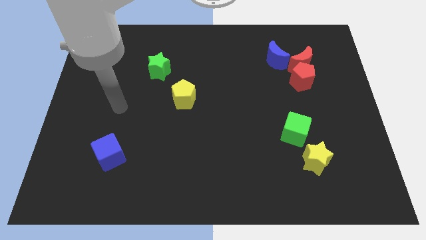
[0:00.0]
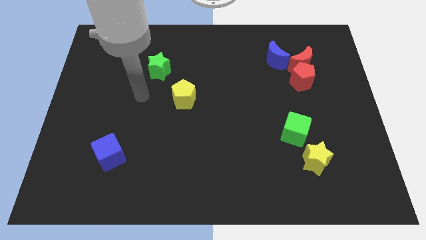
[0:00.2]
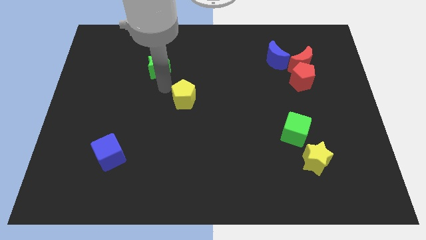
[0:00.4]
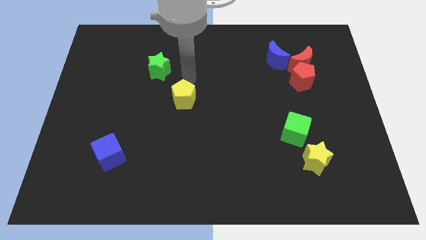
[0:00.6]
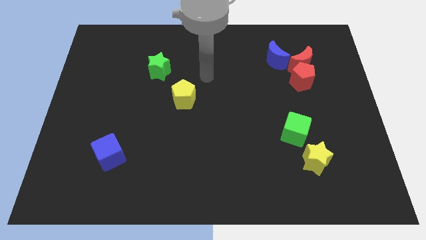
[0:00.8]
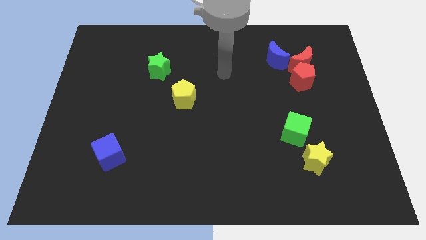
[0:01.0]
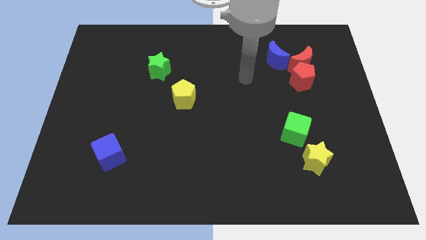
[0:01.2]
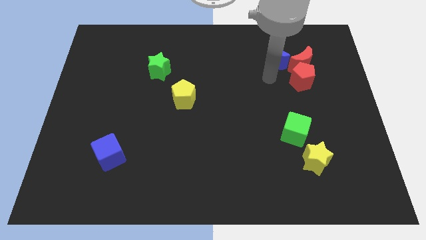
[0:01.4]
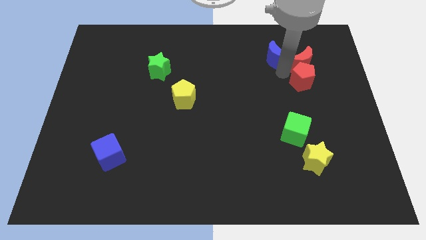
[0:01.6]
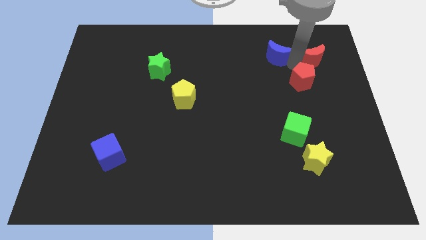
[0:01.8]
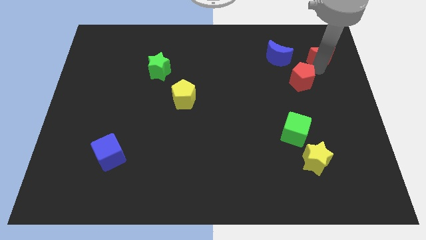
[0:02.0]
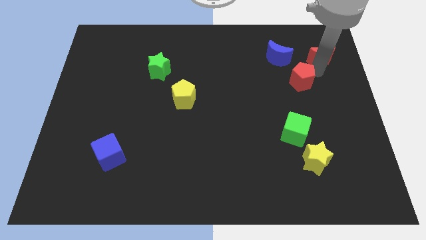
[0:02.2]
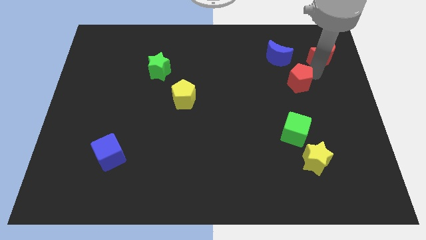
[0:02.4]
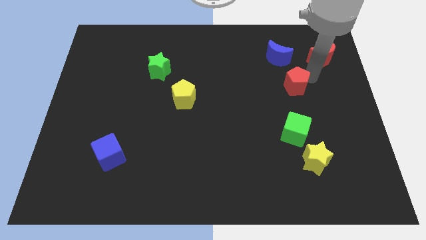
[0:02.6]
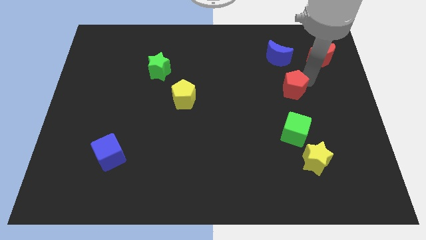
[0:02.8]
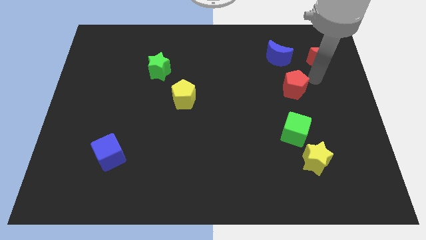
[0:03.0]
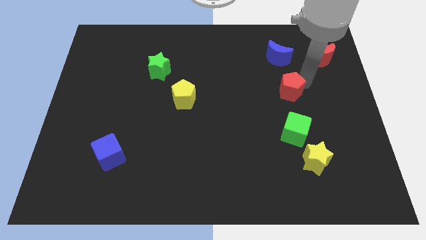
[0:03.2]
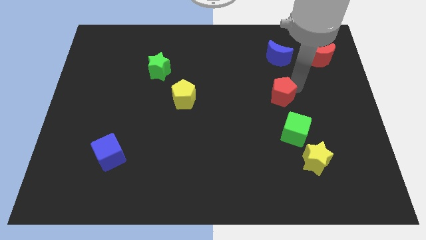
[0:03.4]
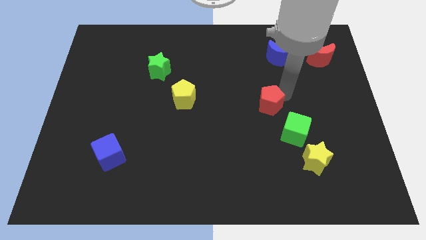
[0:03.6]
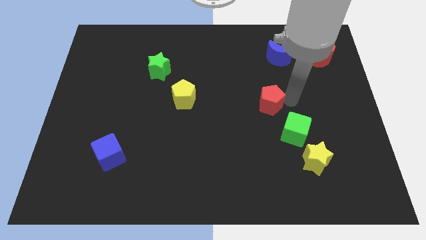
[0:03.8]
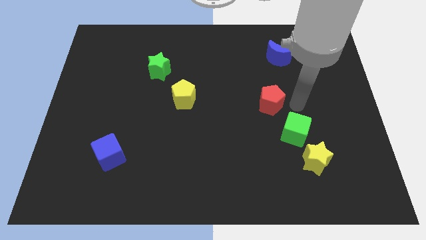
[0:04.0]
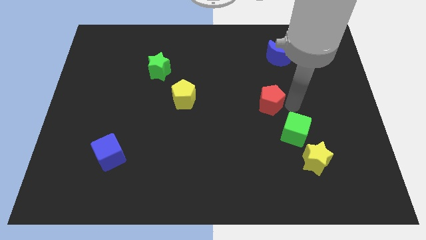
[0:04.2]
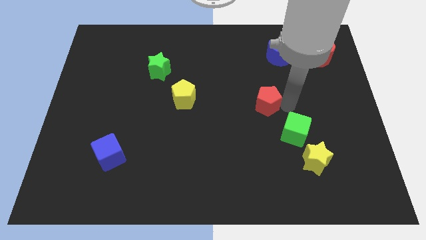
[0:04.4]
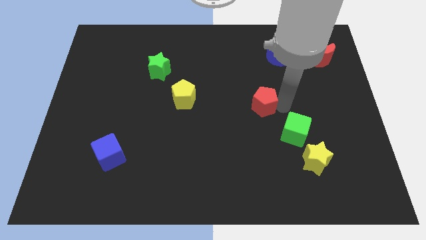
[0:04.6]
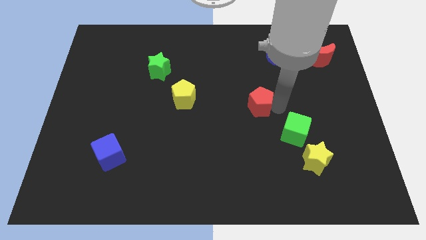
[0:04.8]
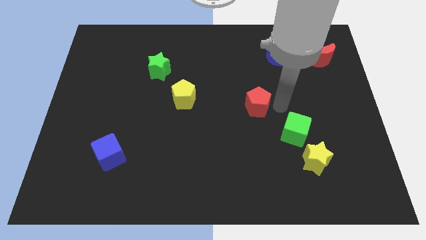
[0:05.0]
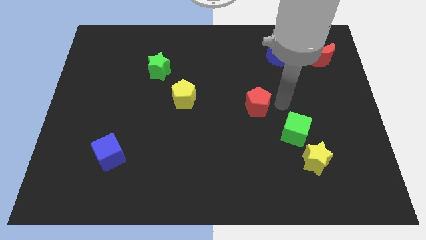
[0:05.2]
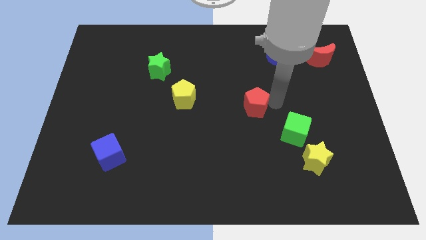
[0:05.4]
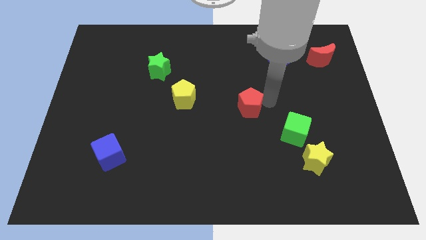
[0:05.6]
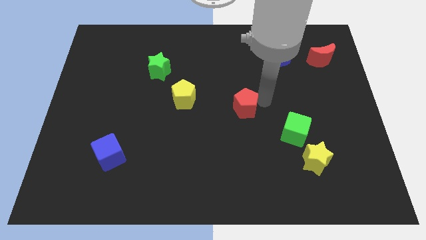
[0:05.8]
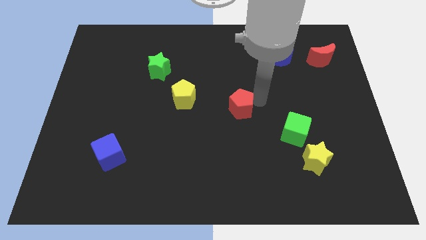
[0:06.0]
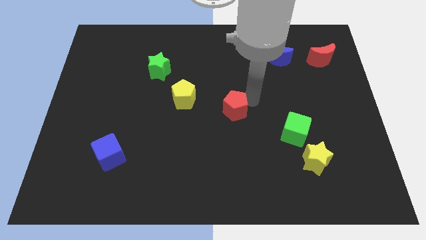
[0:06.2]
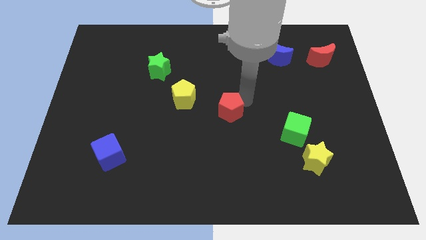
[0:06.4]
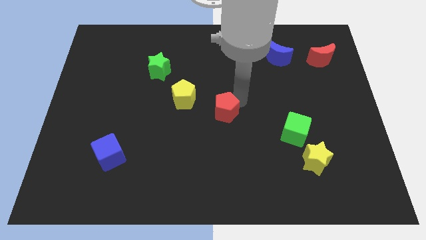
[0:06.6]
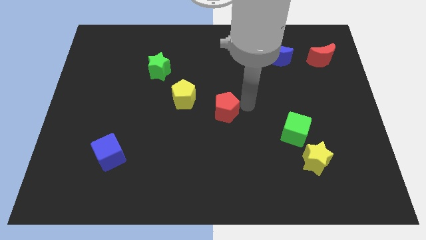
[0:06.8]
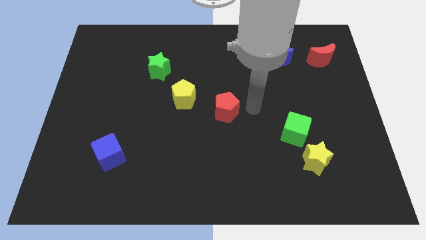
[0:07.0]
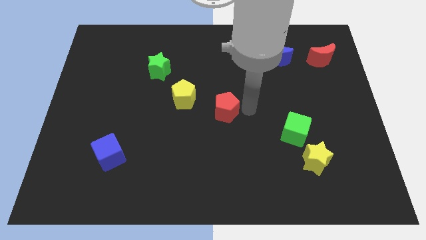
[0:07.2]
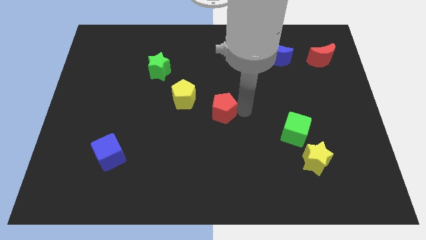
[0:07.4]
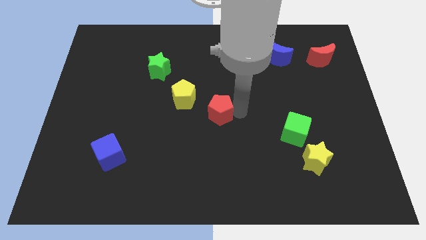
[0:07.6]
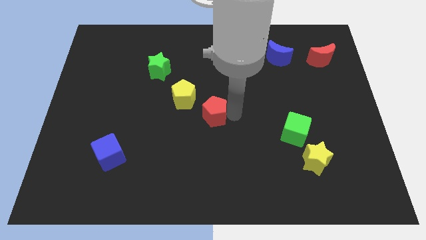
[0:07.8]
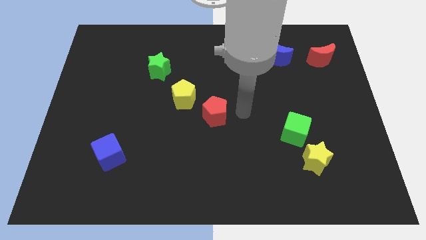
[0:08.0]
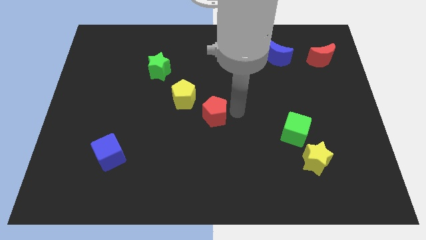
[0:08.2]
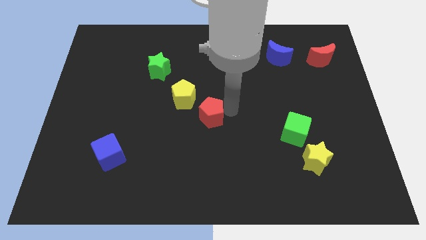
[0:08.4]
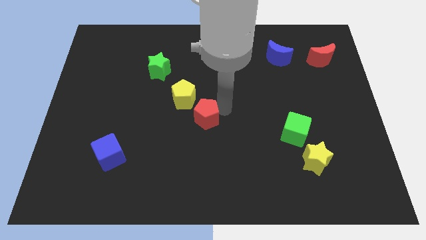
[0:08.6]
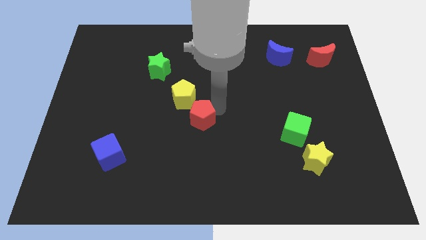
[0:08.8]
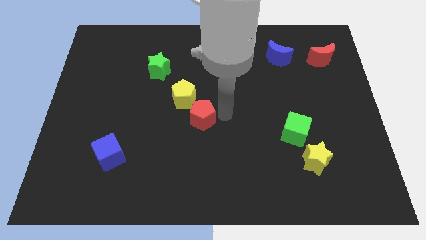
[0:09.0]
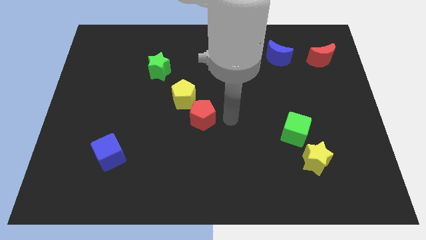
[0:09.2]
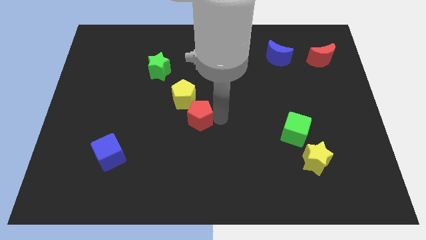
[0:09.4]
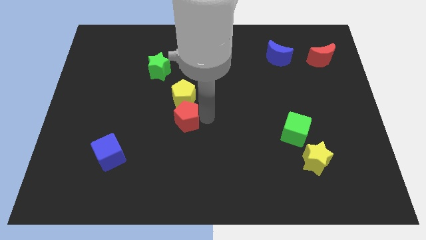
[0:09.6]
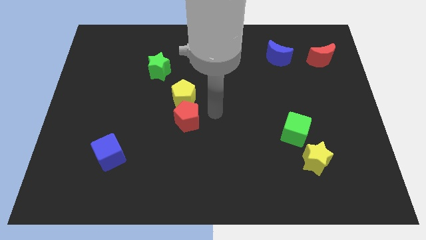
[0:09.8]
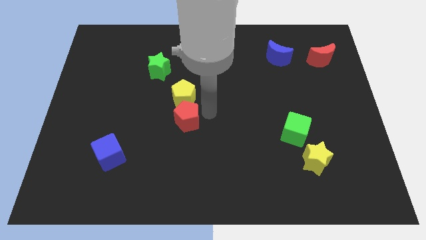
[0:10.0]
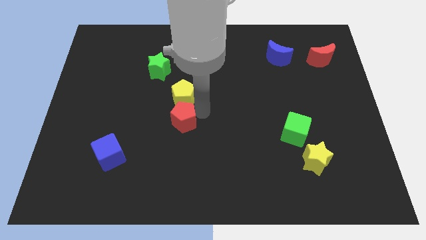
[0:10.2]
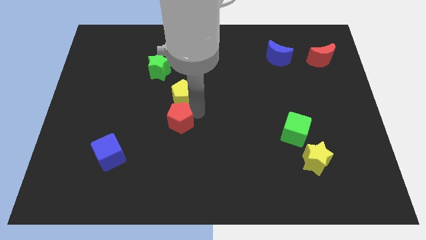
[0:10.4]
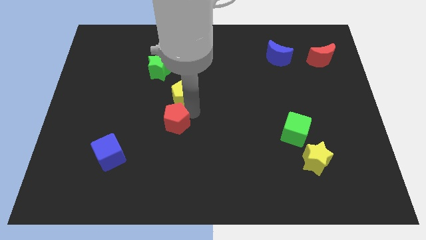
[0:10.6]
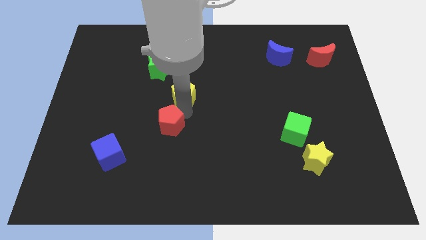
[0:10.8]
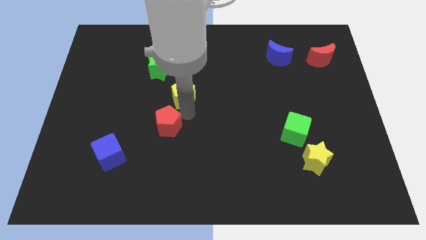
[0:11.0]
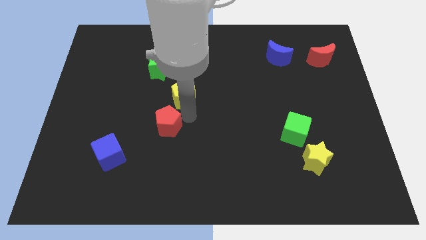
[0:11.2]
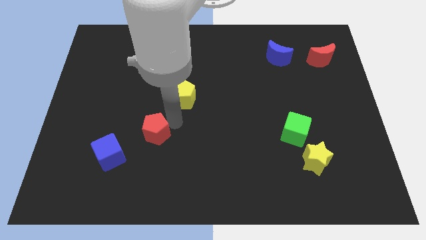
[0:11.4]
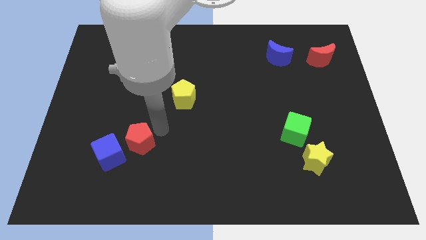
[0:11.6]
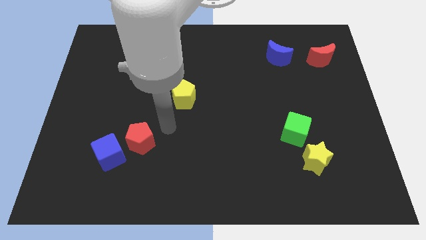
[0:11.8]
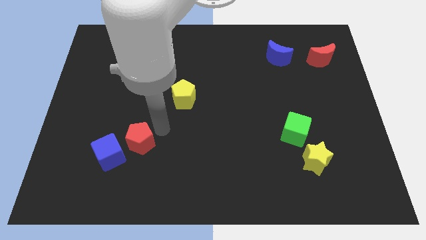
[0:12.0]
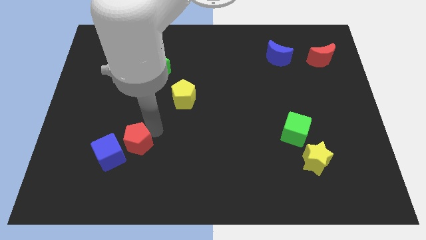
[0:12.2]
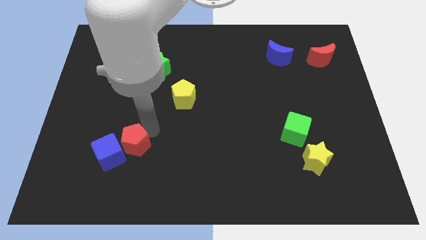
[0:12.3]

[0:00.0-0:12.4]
slide the red pentagon next to the blue cube

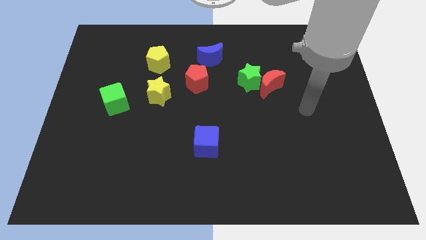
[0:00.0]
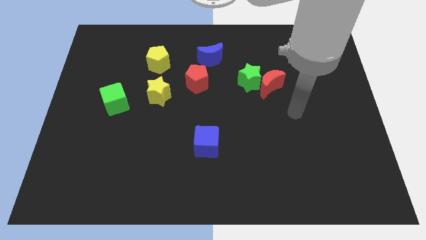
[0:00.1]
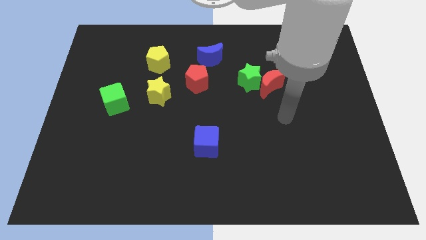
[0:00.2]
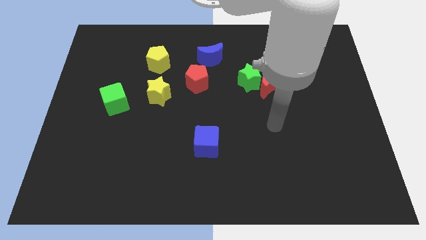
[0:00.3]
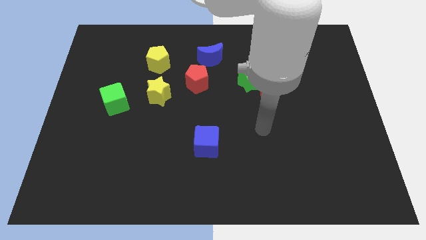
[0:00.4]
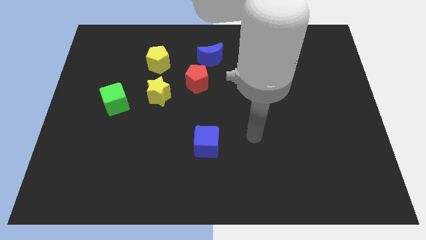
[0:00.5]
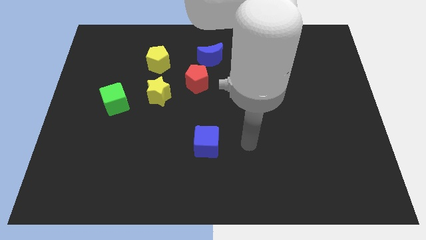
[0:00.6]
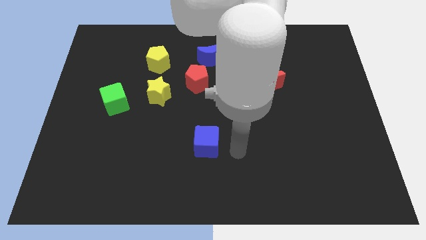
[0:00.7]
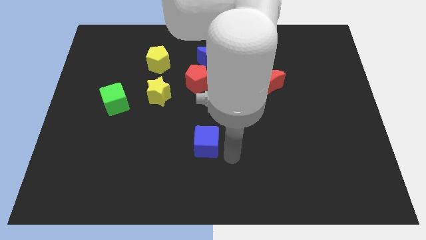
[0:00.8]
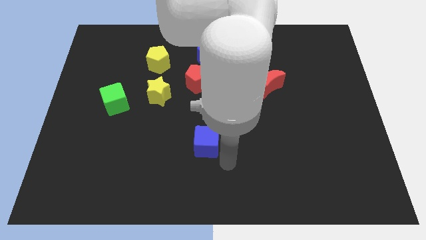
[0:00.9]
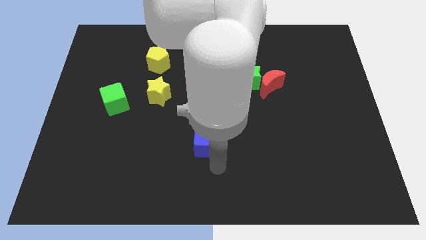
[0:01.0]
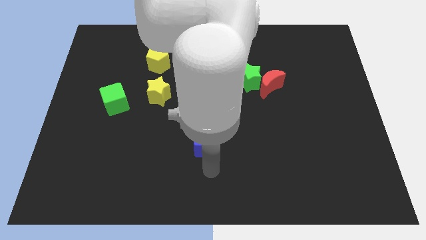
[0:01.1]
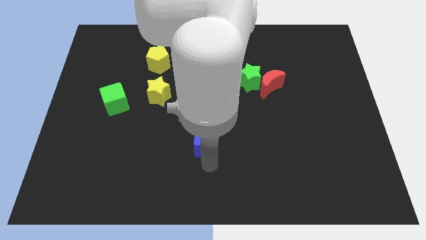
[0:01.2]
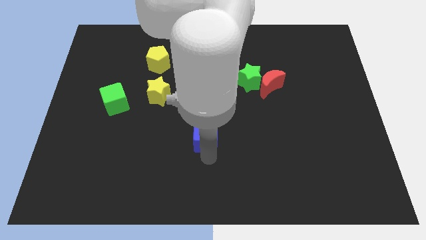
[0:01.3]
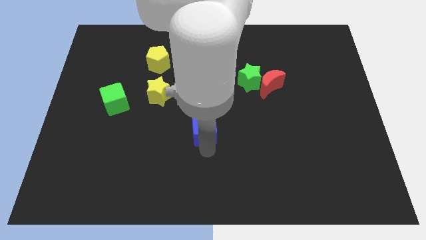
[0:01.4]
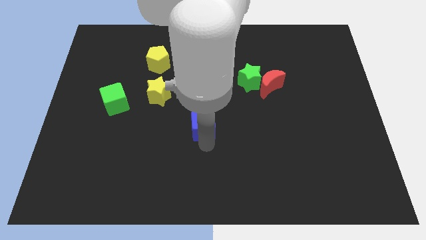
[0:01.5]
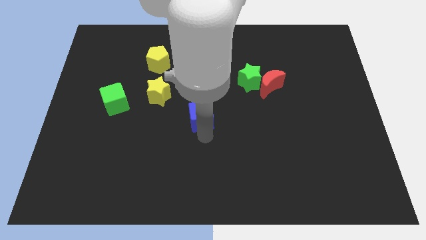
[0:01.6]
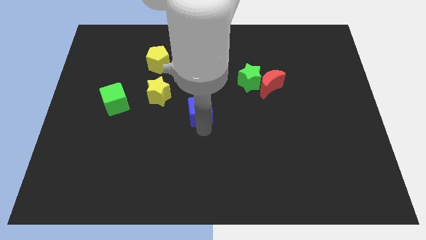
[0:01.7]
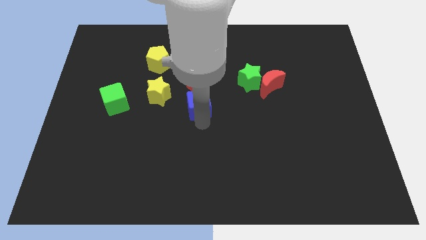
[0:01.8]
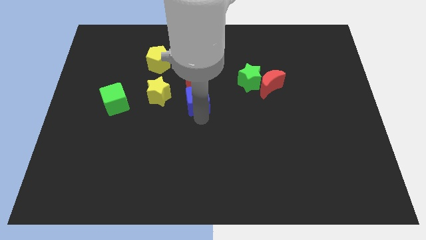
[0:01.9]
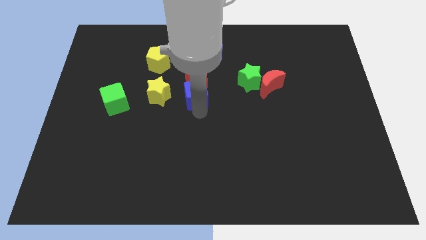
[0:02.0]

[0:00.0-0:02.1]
put the blue cube close to the red pentagon
